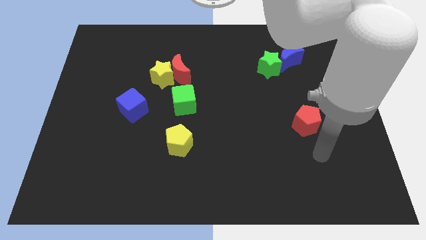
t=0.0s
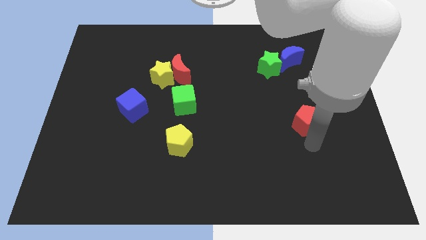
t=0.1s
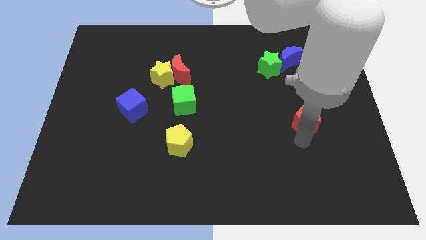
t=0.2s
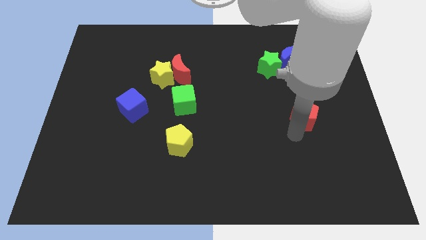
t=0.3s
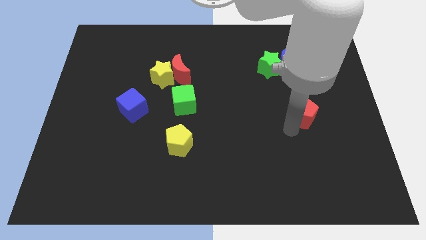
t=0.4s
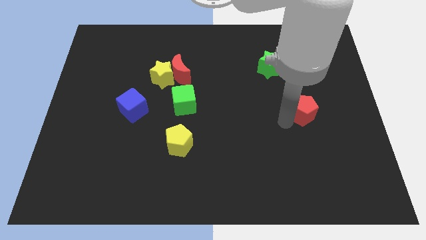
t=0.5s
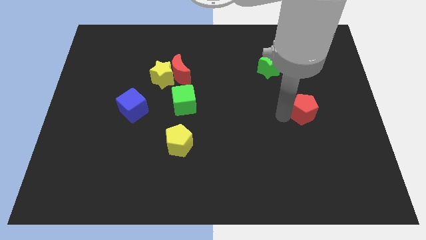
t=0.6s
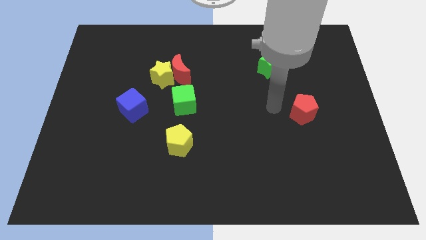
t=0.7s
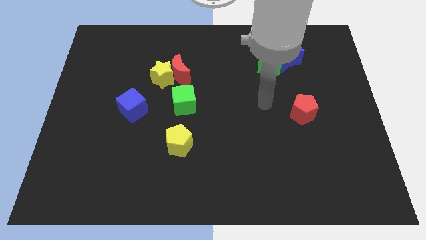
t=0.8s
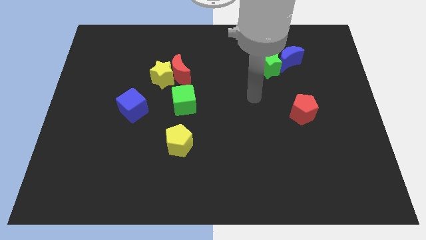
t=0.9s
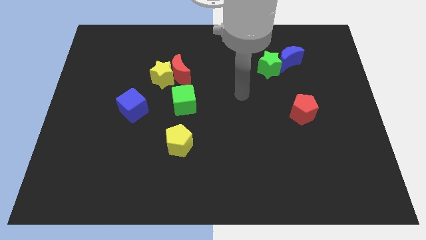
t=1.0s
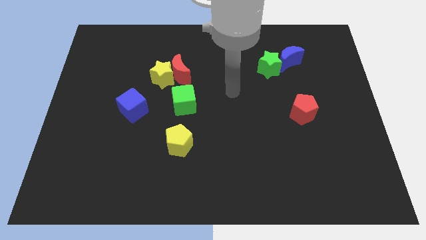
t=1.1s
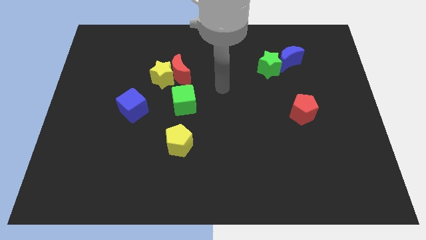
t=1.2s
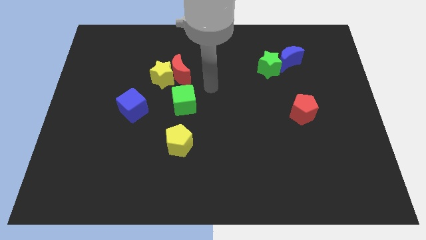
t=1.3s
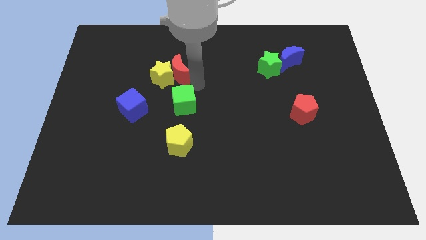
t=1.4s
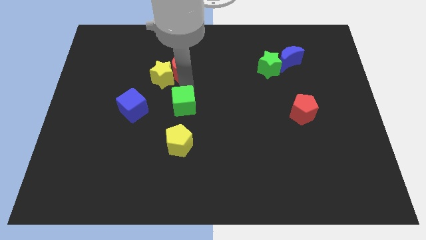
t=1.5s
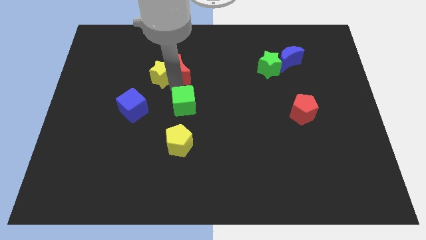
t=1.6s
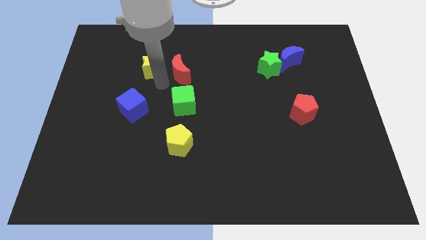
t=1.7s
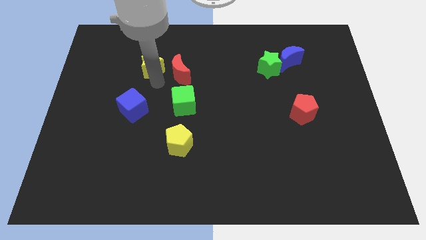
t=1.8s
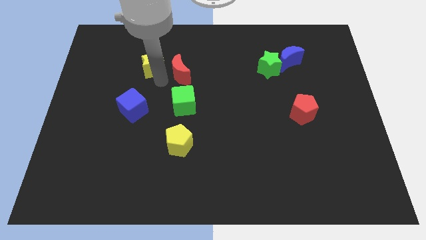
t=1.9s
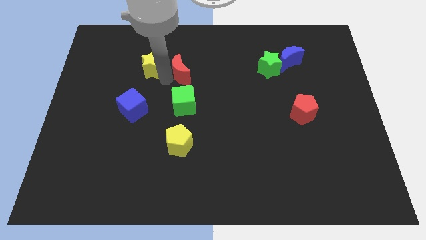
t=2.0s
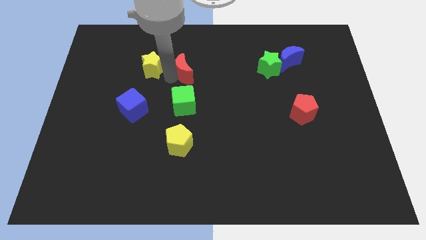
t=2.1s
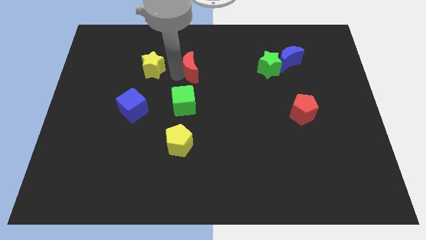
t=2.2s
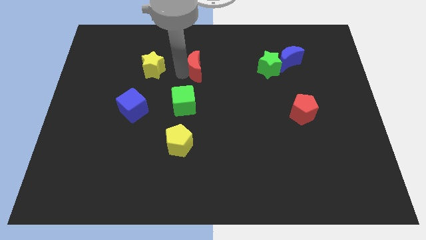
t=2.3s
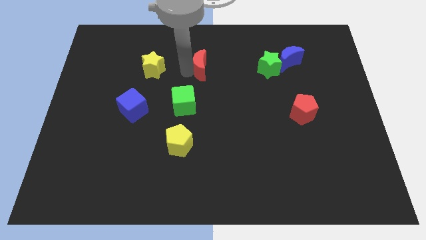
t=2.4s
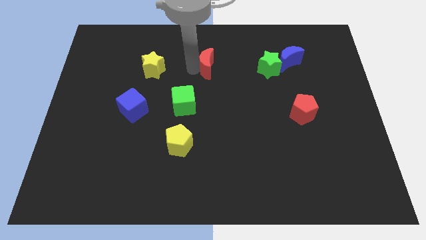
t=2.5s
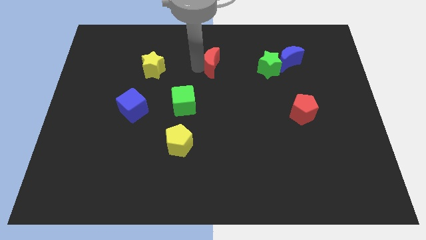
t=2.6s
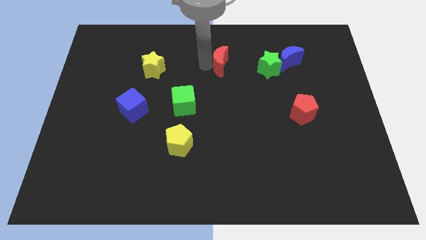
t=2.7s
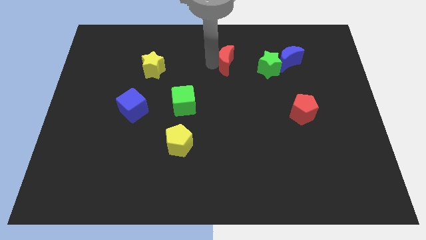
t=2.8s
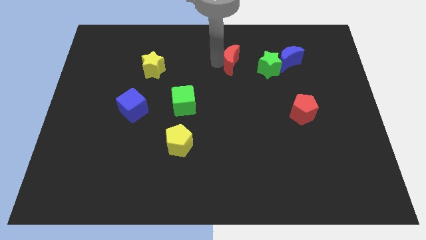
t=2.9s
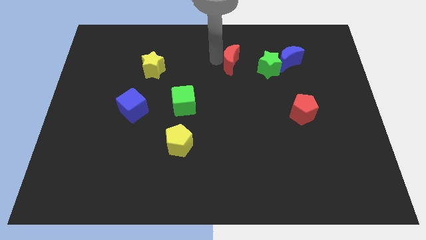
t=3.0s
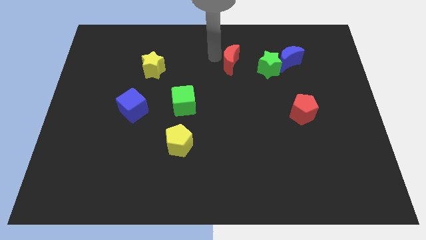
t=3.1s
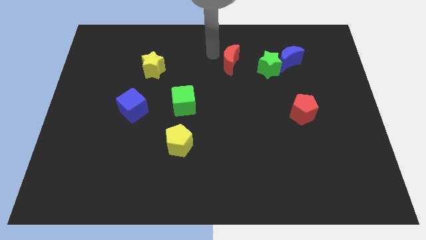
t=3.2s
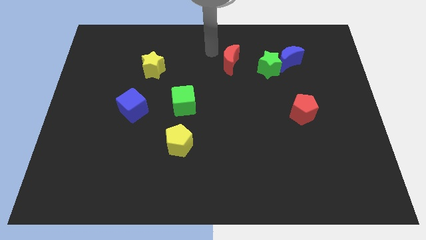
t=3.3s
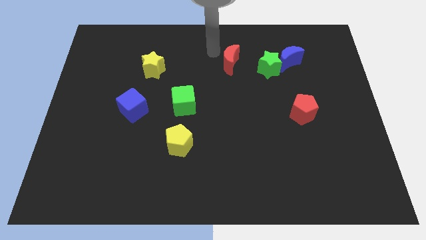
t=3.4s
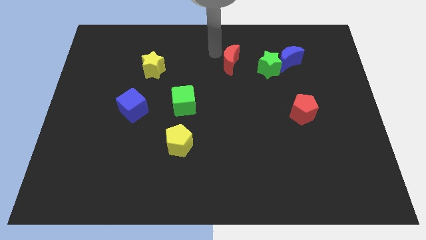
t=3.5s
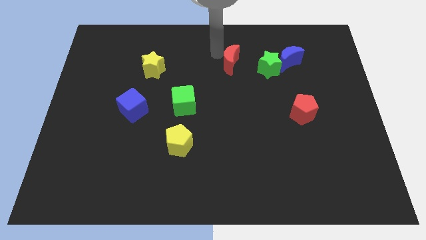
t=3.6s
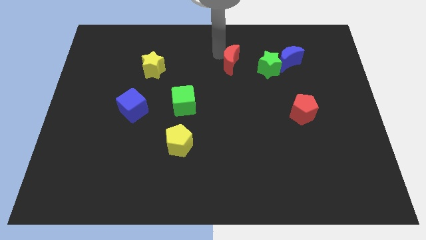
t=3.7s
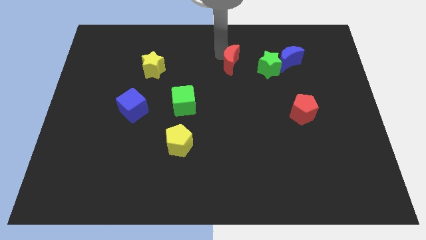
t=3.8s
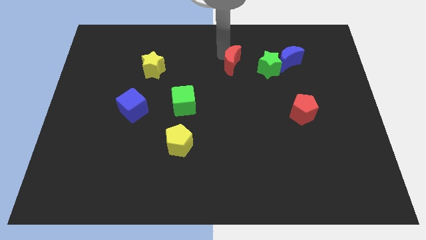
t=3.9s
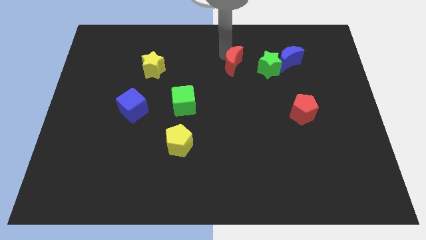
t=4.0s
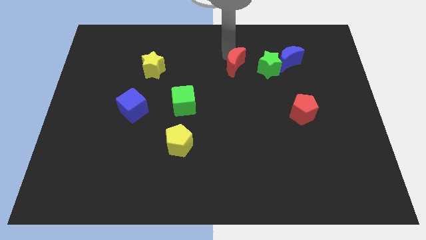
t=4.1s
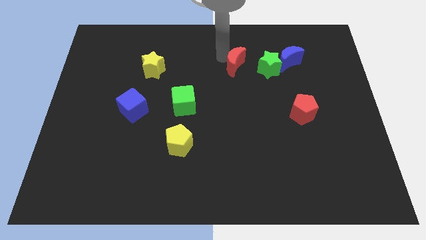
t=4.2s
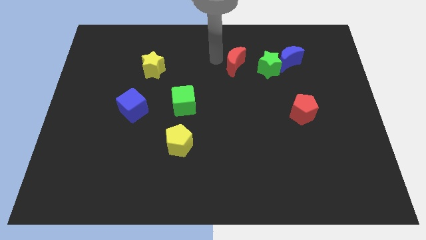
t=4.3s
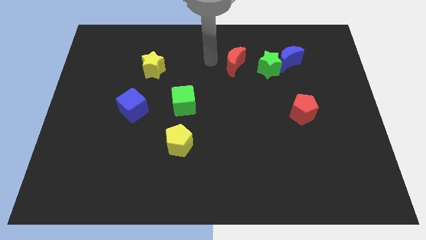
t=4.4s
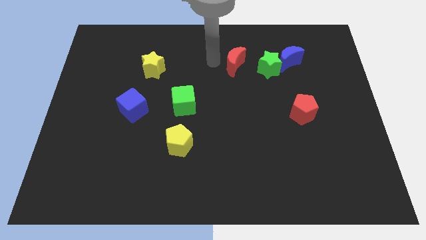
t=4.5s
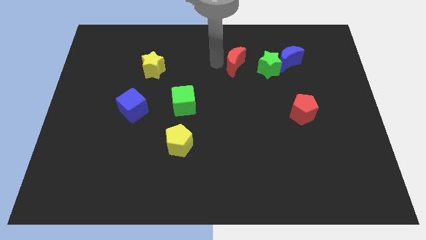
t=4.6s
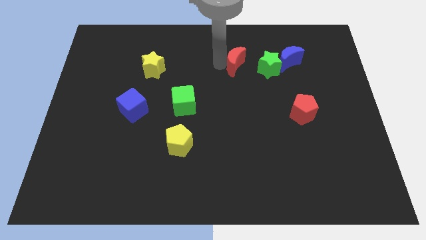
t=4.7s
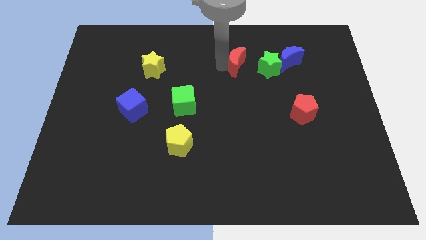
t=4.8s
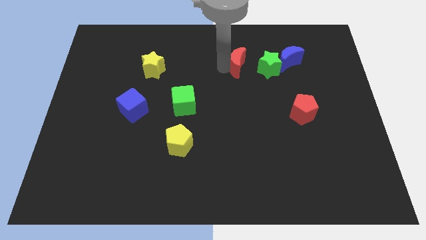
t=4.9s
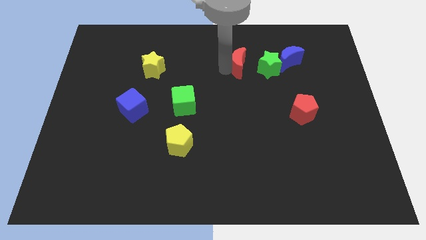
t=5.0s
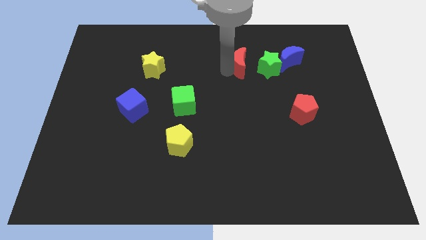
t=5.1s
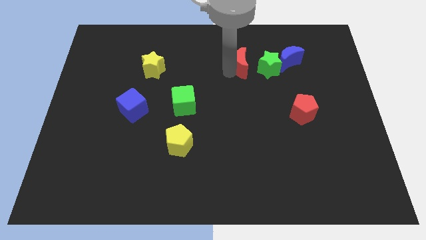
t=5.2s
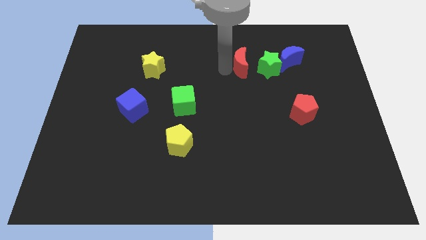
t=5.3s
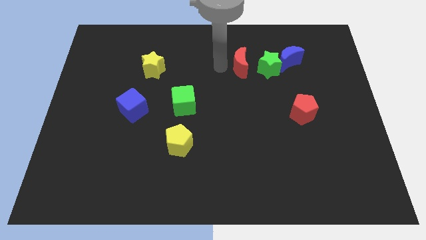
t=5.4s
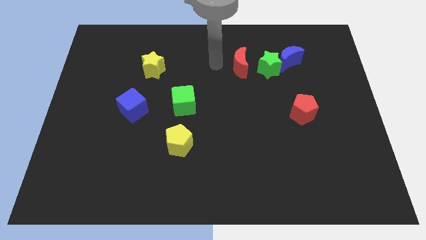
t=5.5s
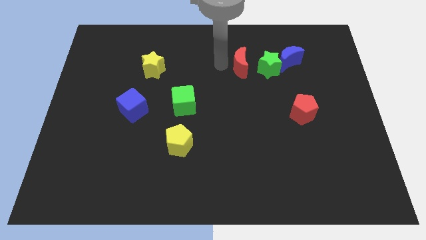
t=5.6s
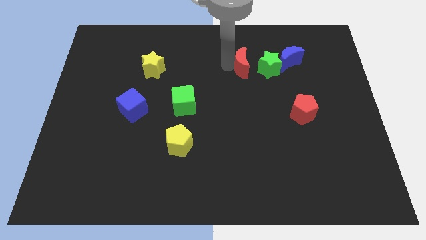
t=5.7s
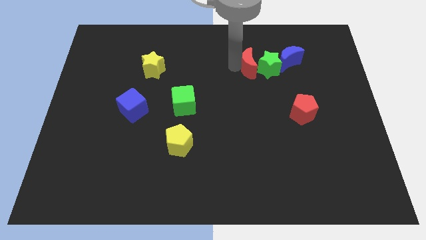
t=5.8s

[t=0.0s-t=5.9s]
slide the red moon to the green star
